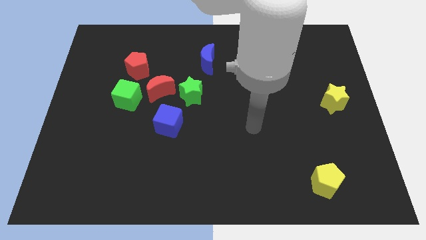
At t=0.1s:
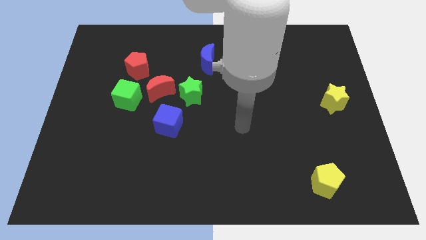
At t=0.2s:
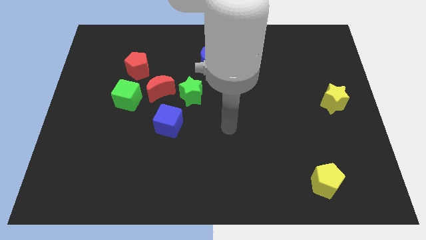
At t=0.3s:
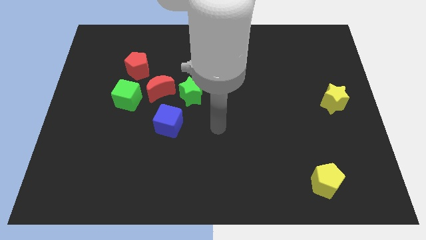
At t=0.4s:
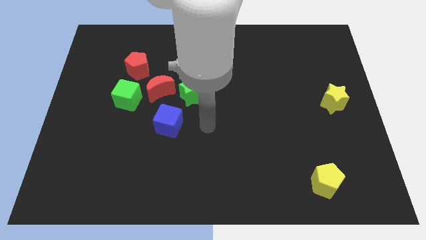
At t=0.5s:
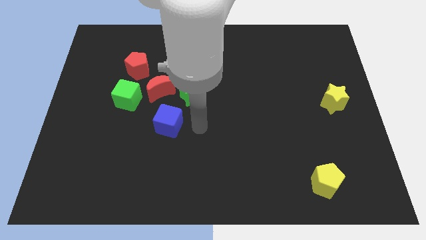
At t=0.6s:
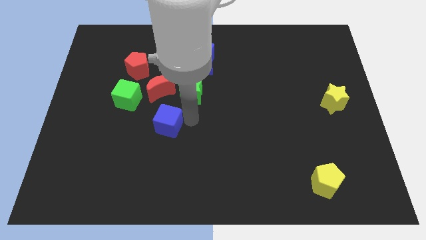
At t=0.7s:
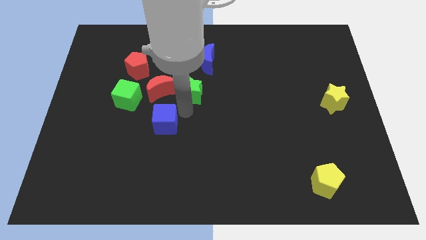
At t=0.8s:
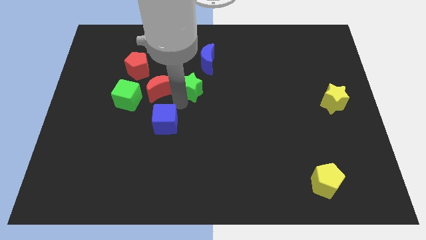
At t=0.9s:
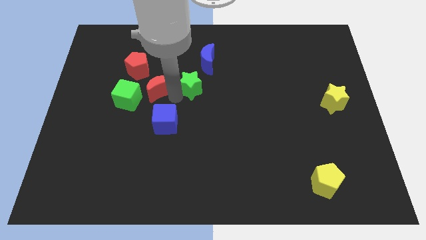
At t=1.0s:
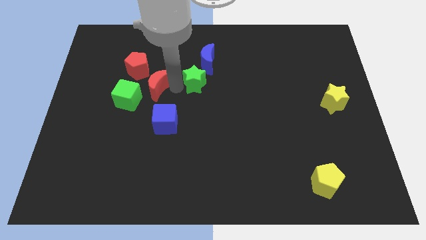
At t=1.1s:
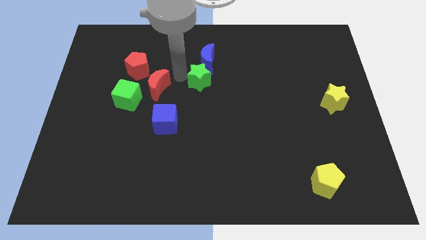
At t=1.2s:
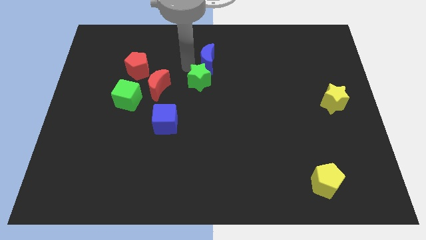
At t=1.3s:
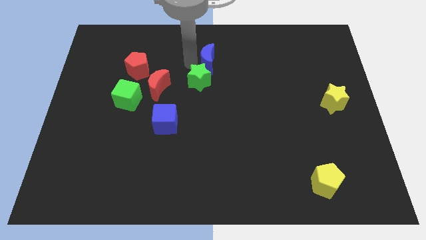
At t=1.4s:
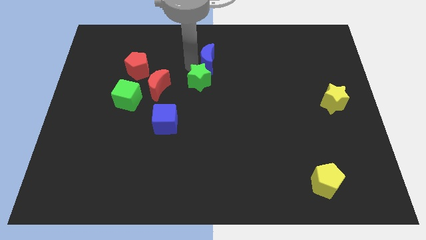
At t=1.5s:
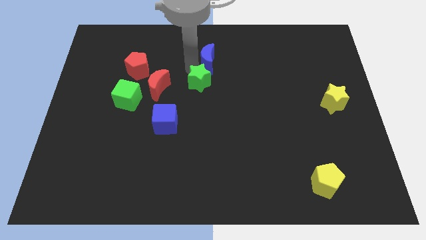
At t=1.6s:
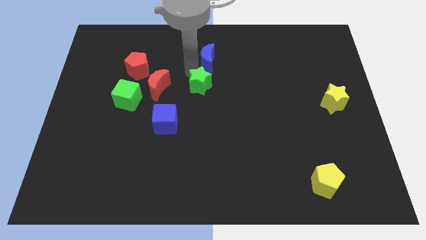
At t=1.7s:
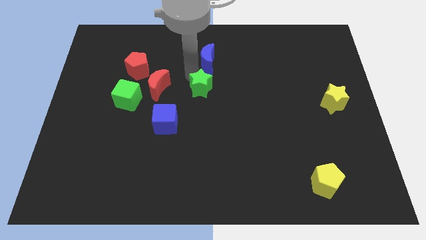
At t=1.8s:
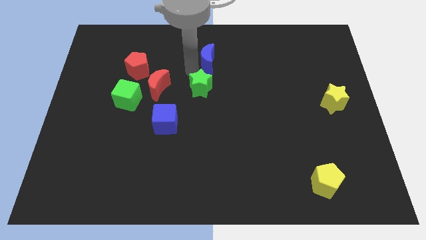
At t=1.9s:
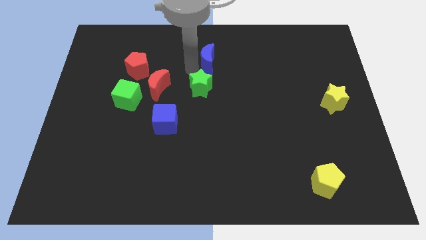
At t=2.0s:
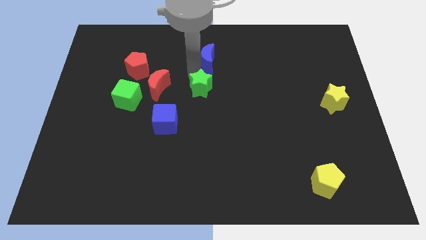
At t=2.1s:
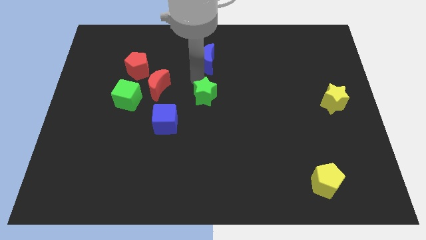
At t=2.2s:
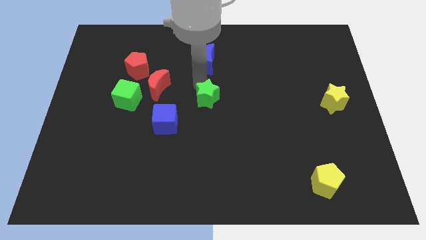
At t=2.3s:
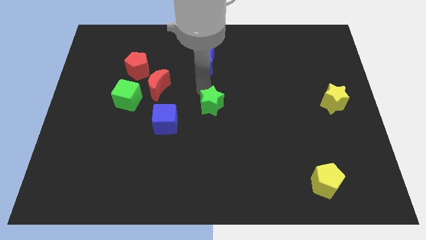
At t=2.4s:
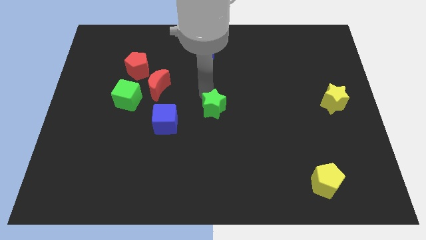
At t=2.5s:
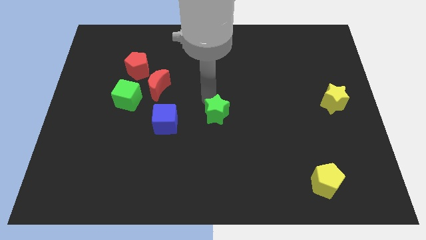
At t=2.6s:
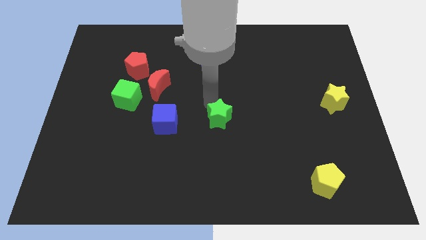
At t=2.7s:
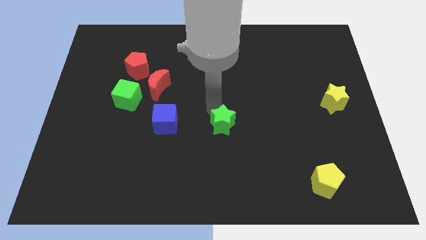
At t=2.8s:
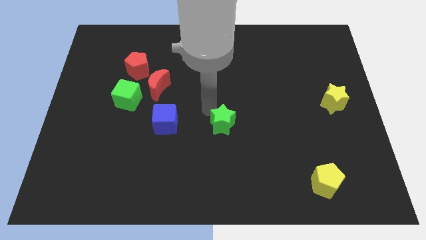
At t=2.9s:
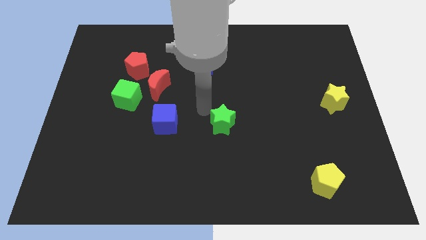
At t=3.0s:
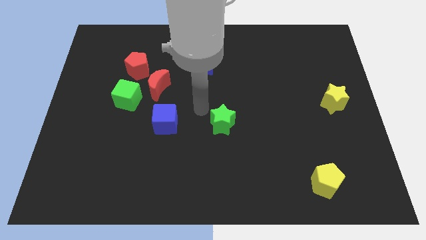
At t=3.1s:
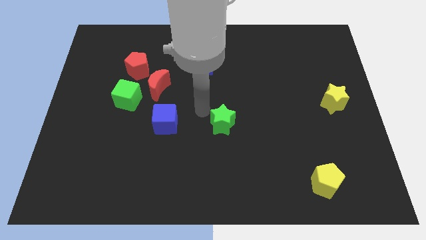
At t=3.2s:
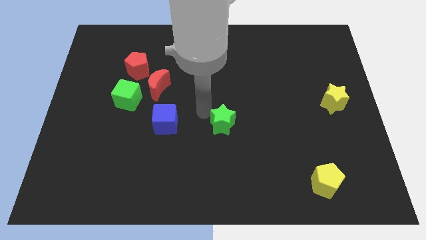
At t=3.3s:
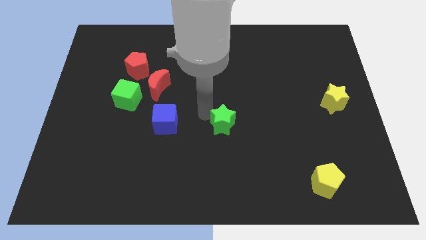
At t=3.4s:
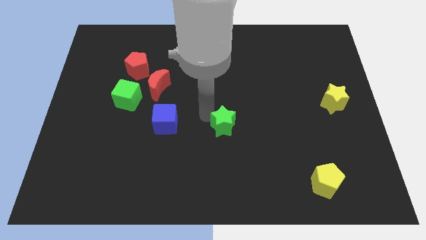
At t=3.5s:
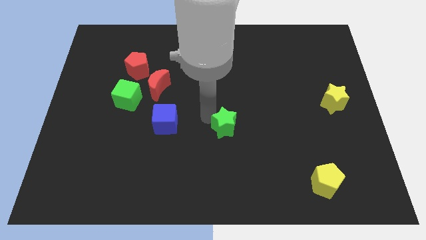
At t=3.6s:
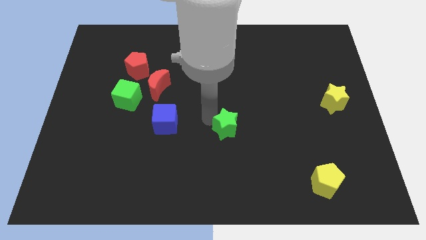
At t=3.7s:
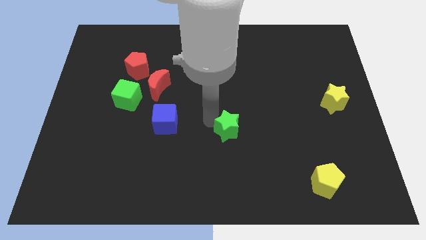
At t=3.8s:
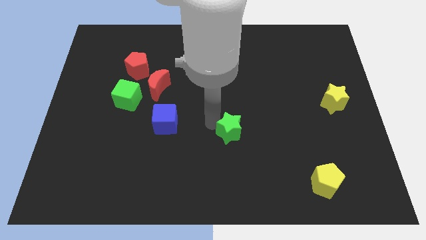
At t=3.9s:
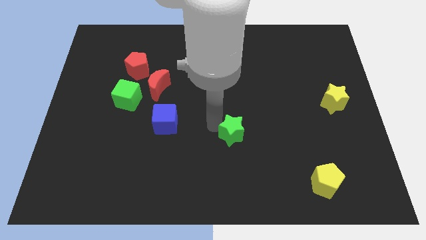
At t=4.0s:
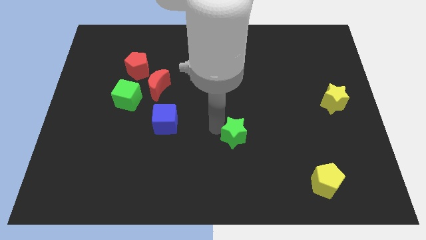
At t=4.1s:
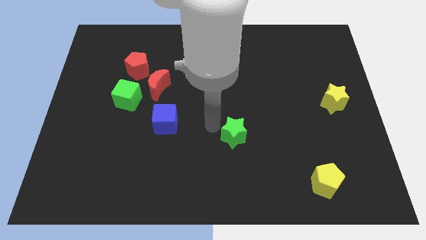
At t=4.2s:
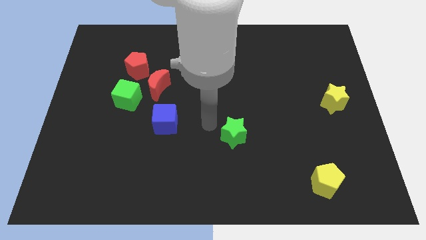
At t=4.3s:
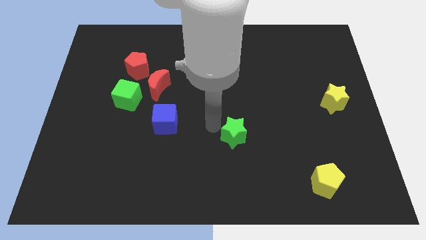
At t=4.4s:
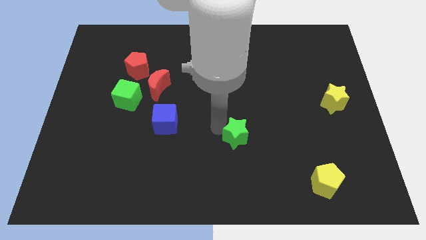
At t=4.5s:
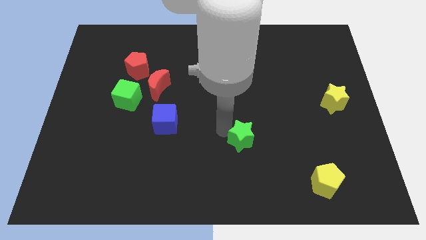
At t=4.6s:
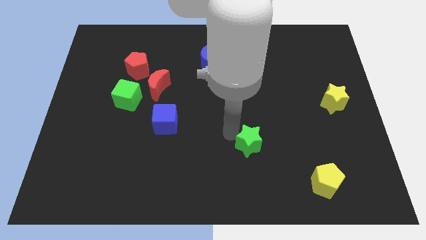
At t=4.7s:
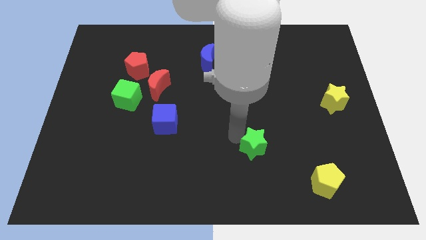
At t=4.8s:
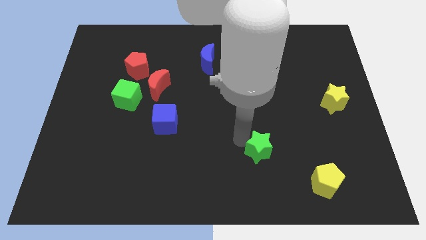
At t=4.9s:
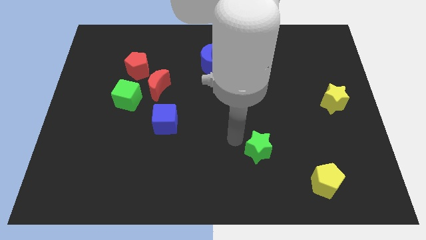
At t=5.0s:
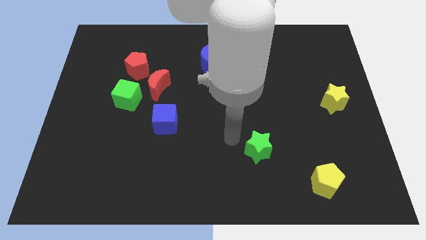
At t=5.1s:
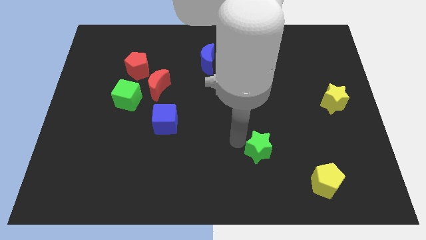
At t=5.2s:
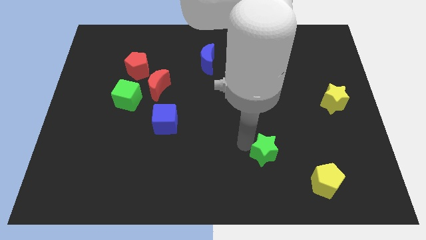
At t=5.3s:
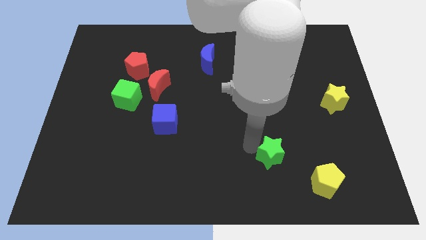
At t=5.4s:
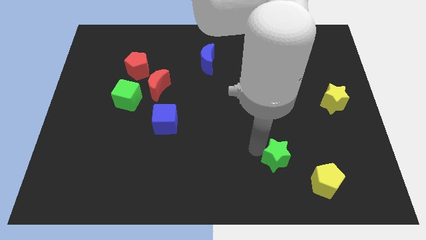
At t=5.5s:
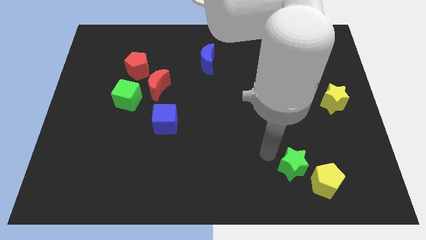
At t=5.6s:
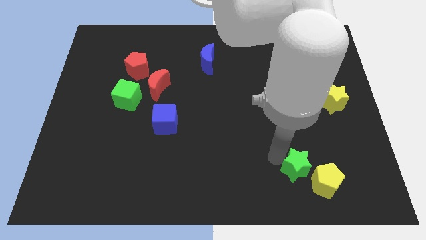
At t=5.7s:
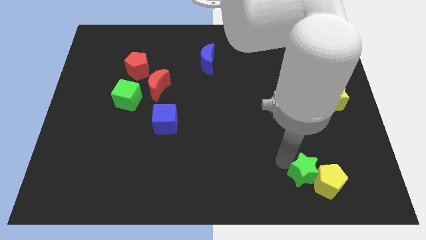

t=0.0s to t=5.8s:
slide the green star next to the yellow pentagon

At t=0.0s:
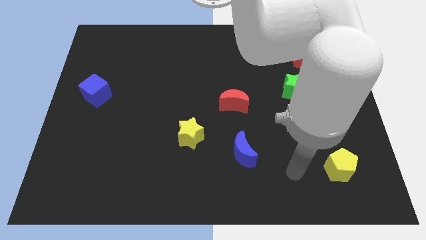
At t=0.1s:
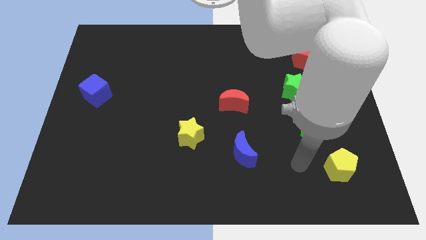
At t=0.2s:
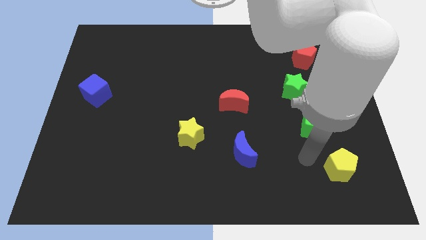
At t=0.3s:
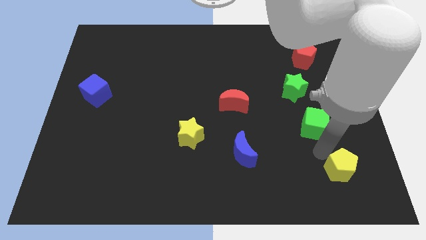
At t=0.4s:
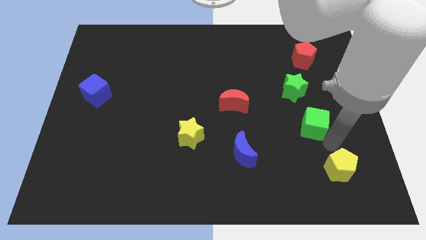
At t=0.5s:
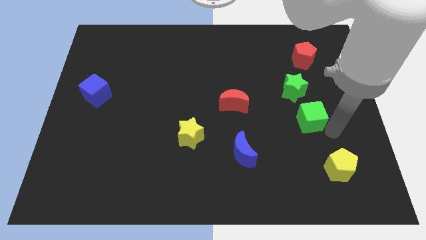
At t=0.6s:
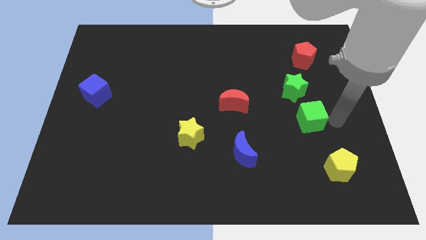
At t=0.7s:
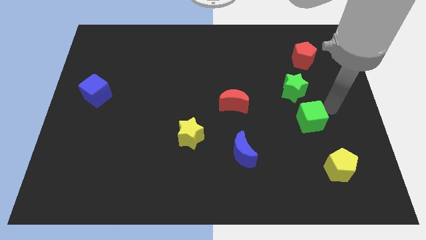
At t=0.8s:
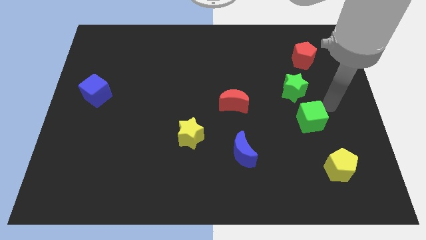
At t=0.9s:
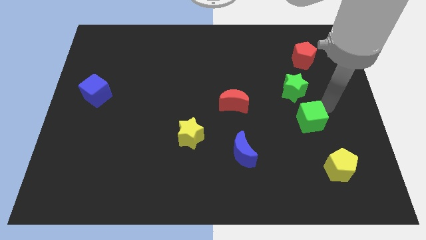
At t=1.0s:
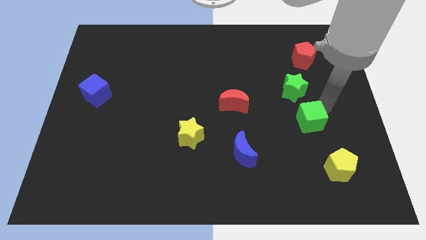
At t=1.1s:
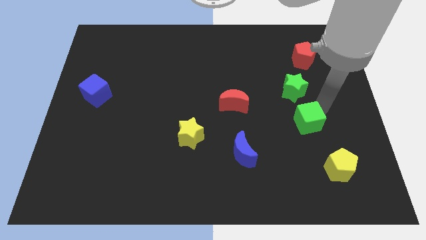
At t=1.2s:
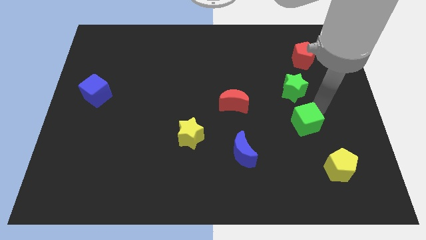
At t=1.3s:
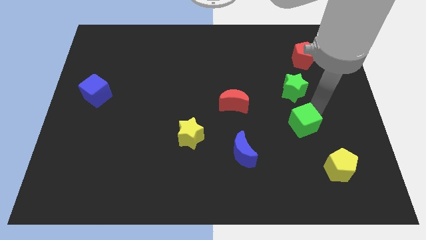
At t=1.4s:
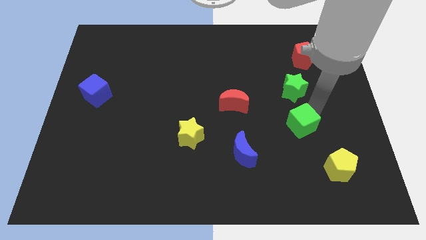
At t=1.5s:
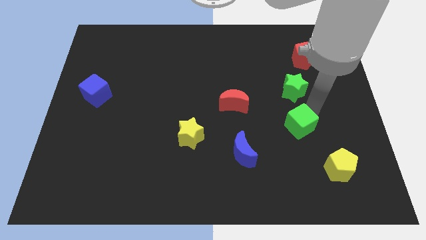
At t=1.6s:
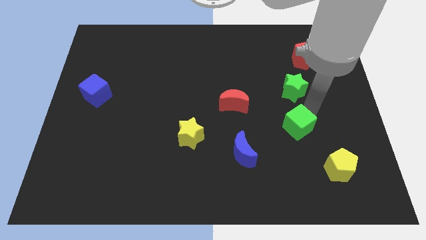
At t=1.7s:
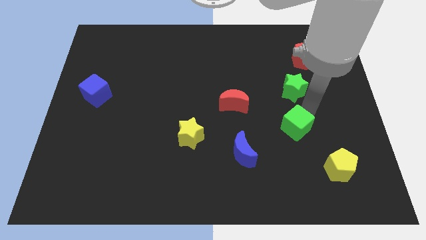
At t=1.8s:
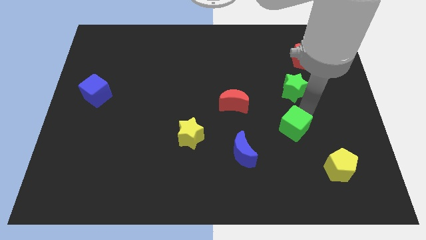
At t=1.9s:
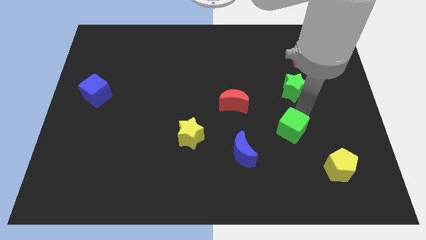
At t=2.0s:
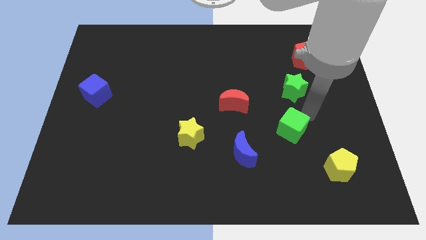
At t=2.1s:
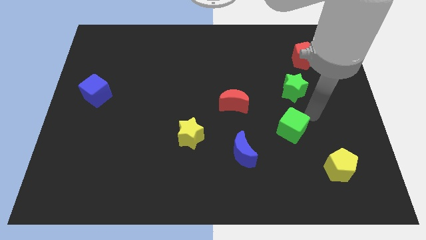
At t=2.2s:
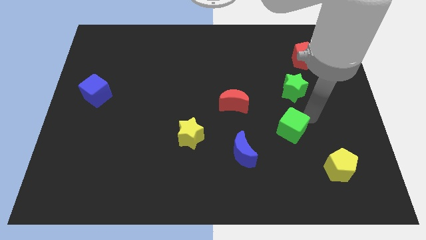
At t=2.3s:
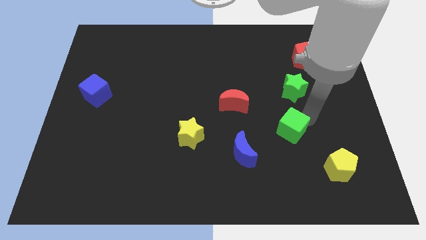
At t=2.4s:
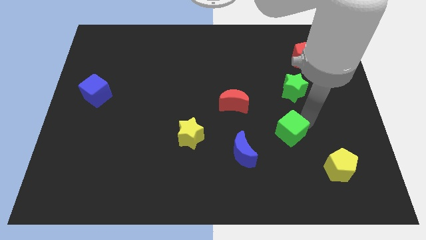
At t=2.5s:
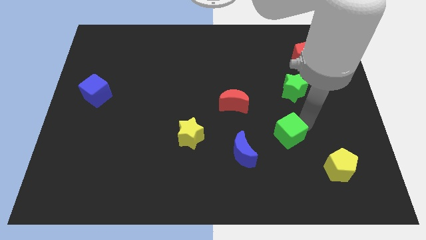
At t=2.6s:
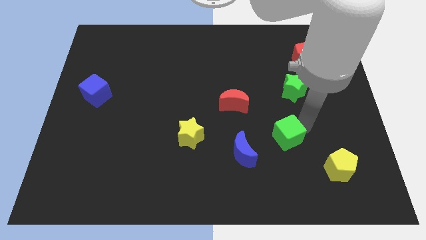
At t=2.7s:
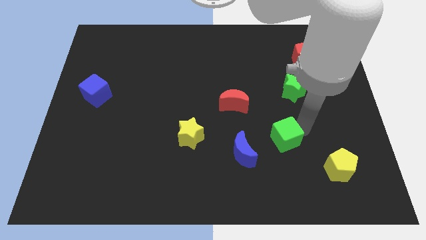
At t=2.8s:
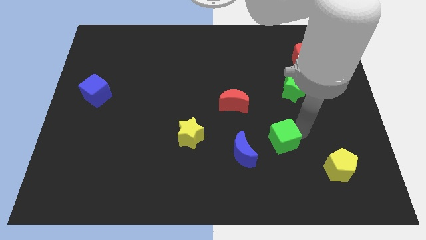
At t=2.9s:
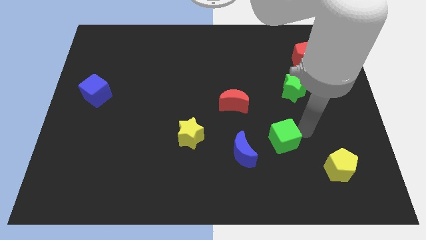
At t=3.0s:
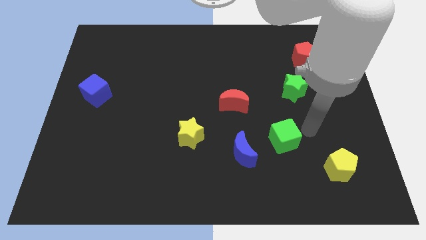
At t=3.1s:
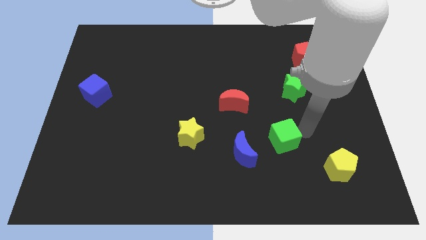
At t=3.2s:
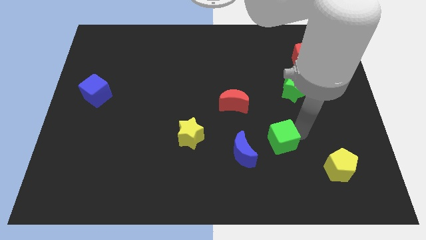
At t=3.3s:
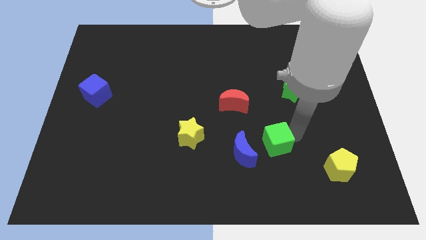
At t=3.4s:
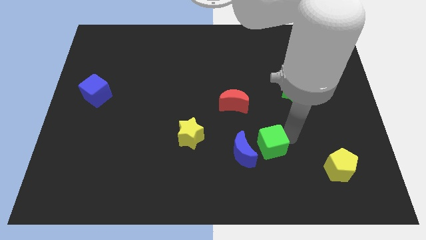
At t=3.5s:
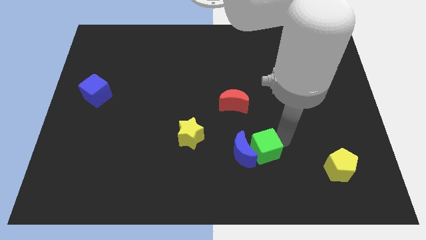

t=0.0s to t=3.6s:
put the green cube to the blue moon
